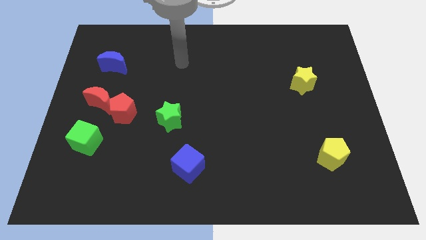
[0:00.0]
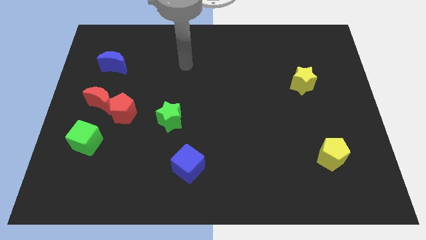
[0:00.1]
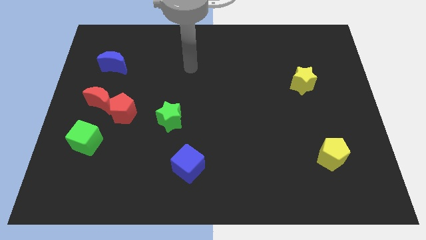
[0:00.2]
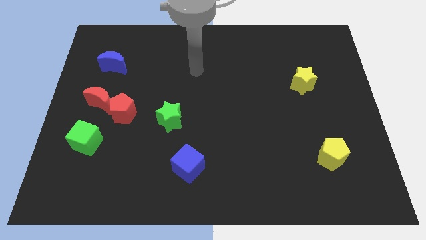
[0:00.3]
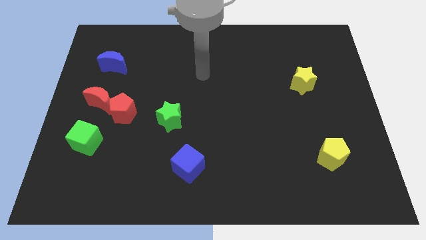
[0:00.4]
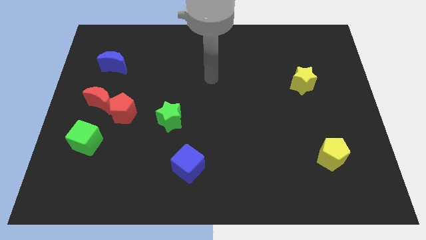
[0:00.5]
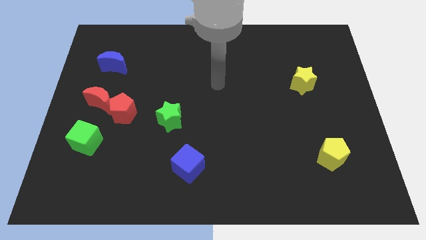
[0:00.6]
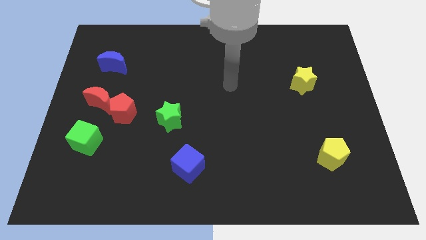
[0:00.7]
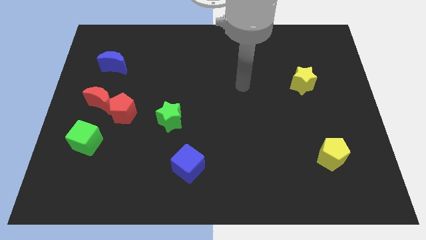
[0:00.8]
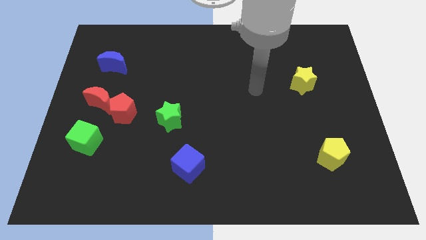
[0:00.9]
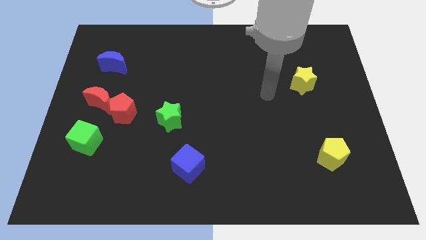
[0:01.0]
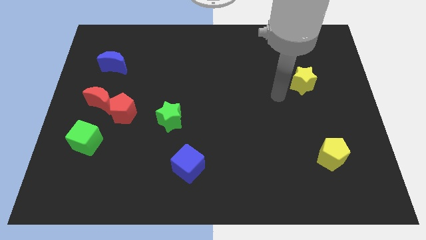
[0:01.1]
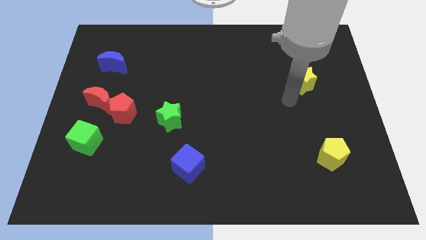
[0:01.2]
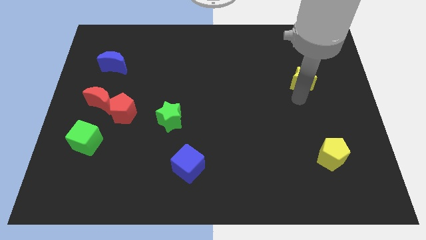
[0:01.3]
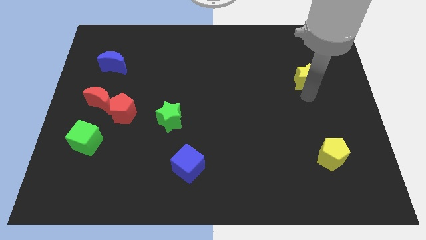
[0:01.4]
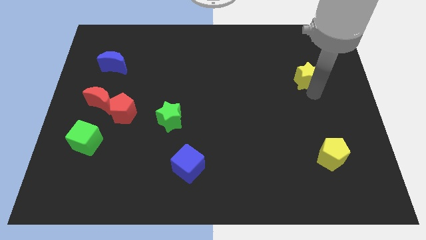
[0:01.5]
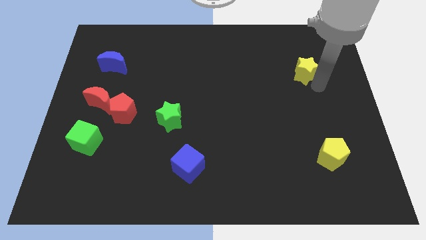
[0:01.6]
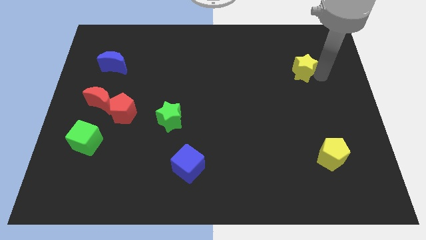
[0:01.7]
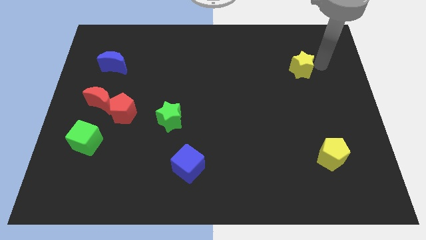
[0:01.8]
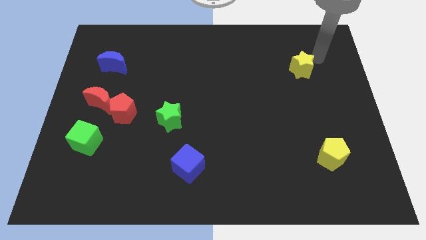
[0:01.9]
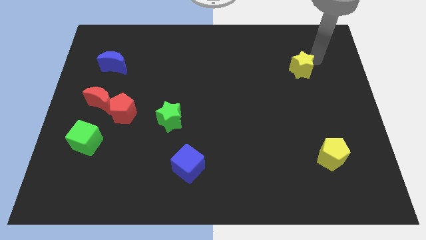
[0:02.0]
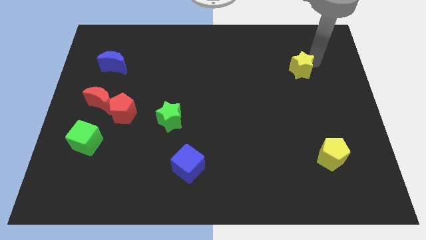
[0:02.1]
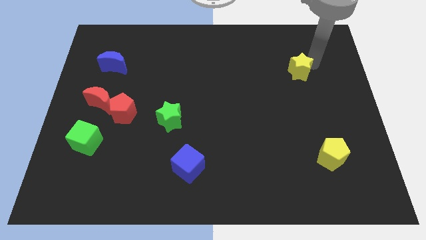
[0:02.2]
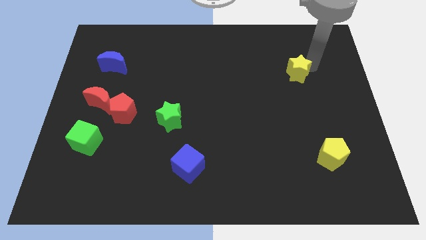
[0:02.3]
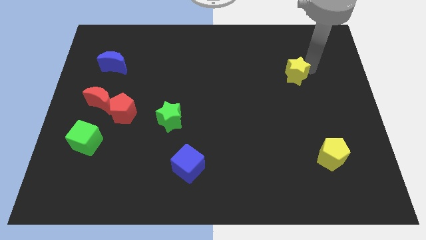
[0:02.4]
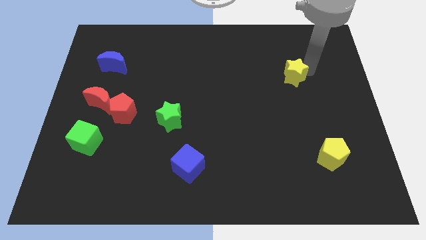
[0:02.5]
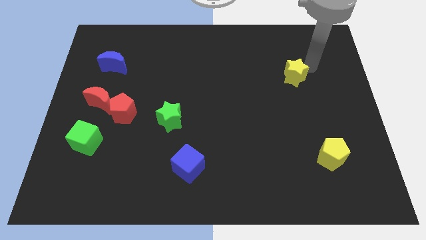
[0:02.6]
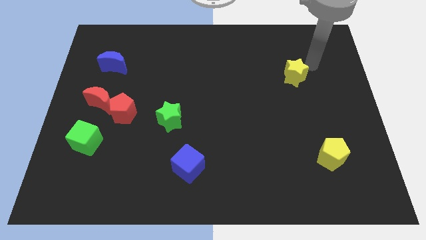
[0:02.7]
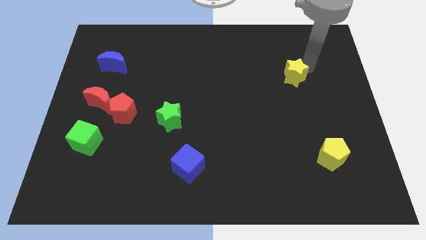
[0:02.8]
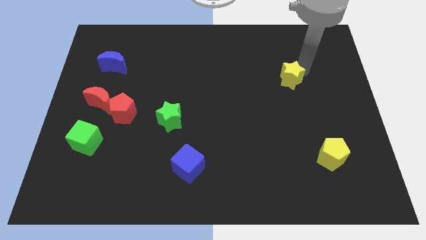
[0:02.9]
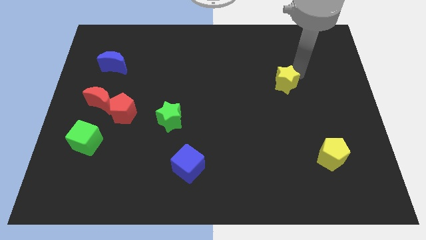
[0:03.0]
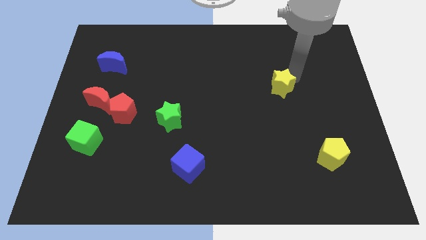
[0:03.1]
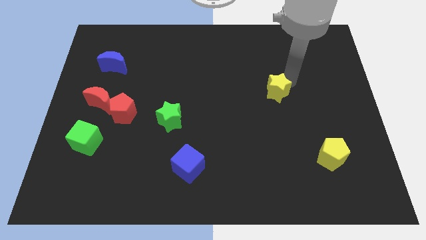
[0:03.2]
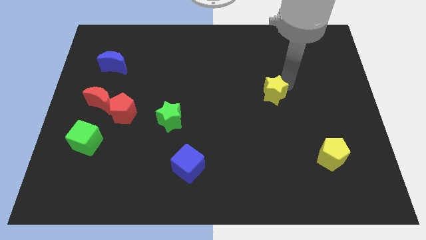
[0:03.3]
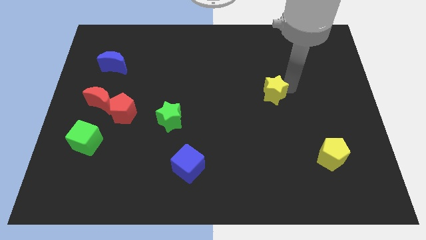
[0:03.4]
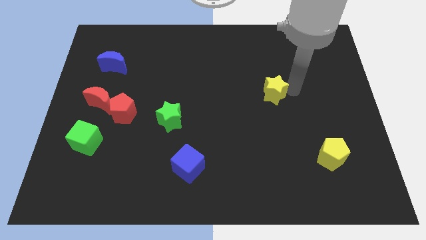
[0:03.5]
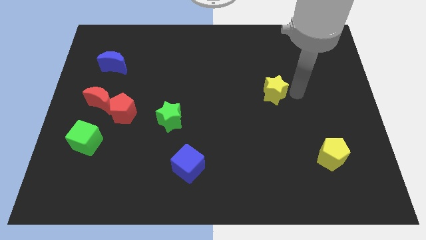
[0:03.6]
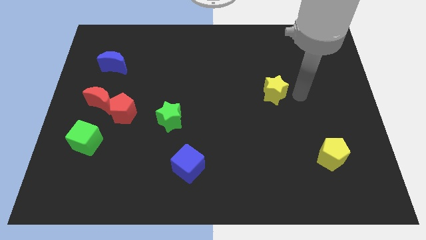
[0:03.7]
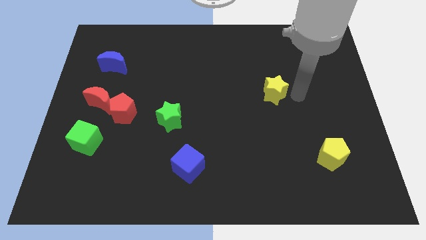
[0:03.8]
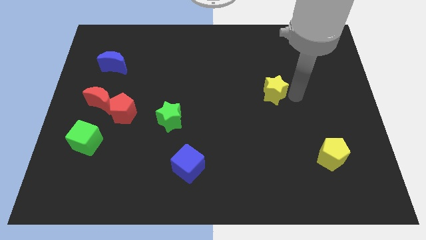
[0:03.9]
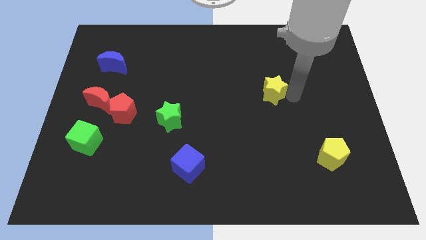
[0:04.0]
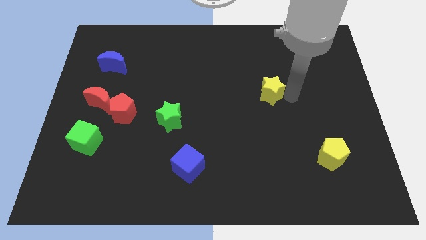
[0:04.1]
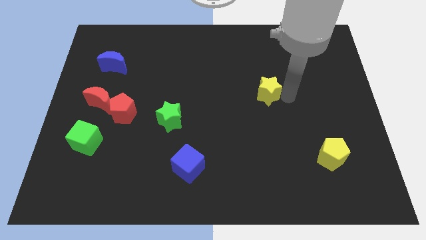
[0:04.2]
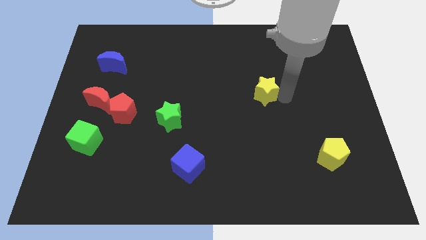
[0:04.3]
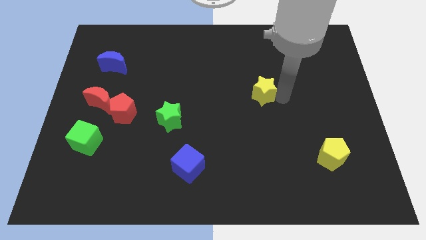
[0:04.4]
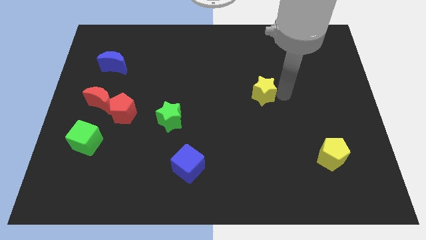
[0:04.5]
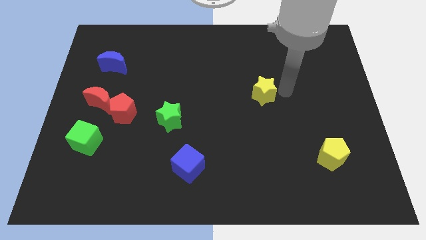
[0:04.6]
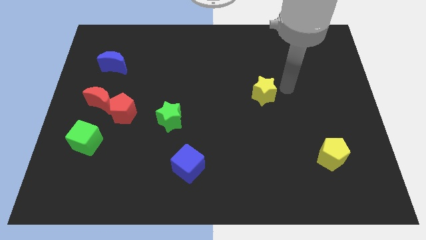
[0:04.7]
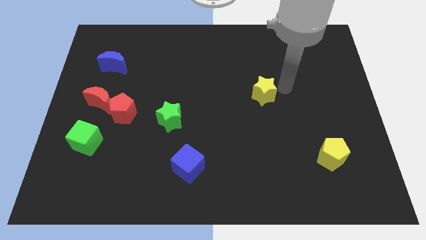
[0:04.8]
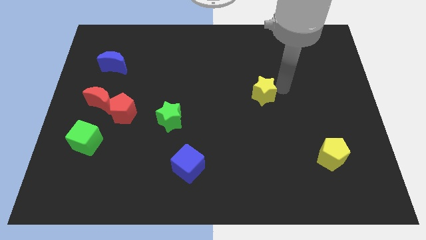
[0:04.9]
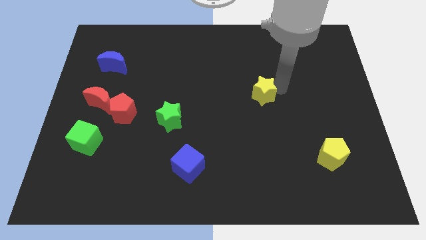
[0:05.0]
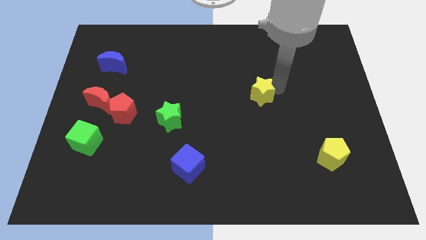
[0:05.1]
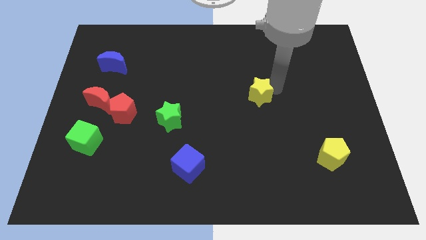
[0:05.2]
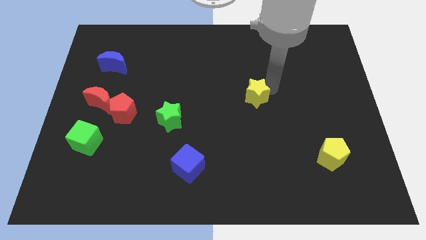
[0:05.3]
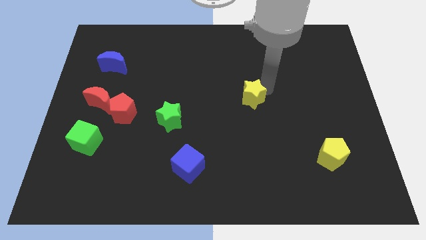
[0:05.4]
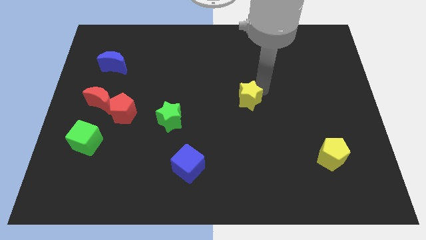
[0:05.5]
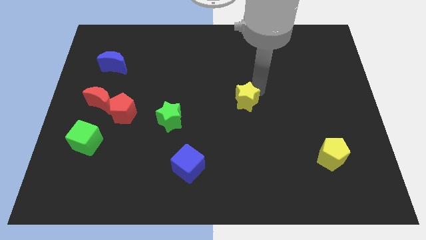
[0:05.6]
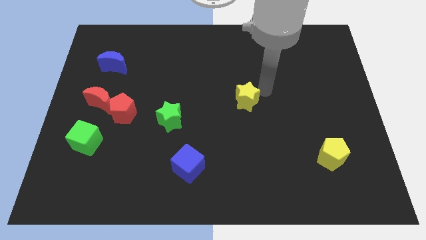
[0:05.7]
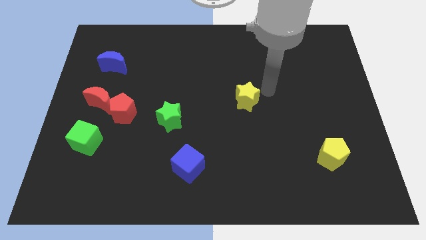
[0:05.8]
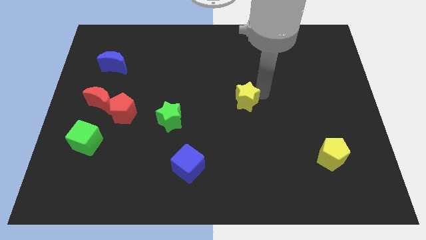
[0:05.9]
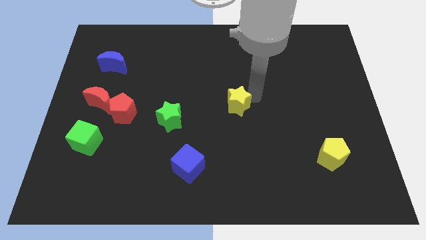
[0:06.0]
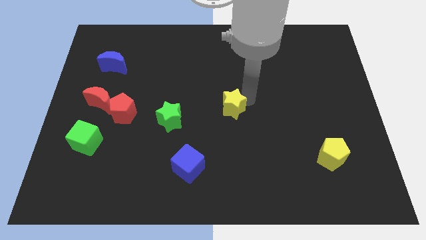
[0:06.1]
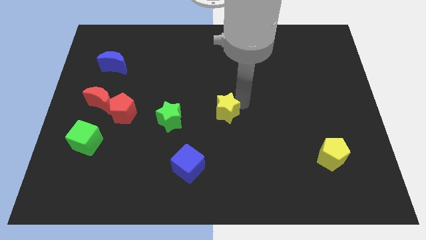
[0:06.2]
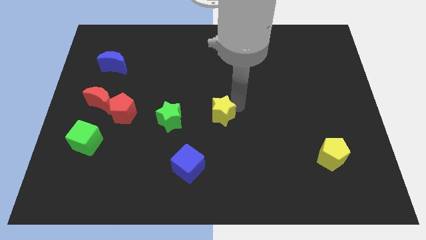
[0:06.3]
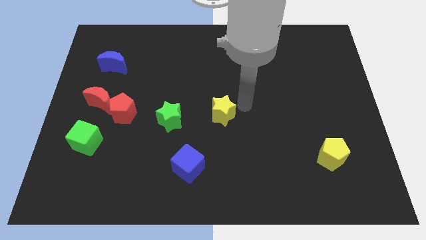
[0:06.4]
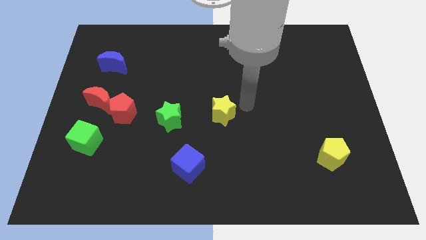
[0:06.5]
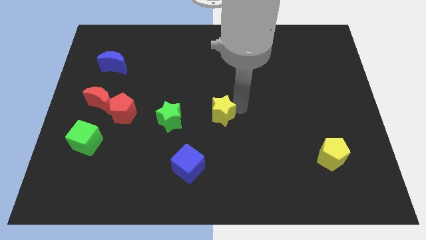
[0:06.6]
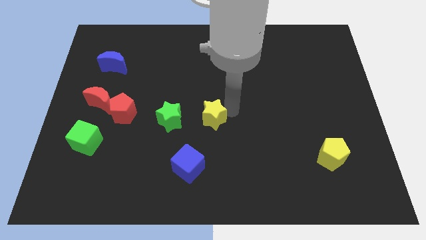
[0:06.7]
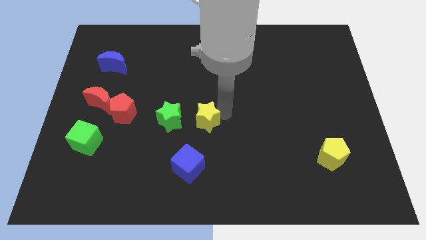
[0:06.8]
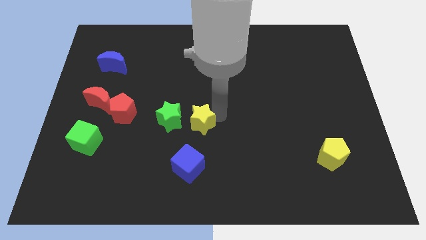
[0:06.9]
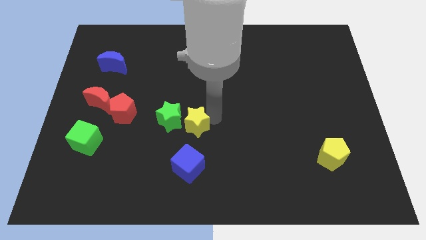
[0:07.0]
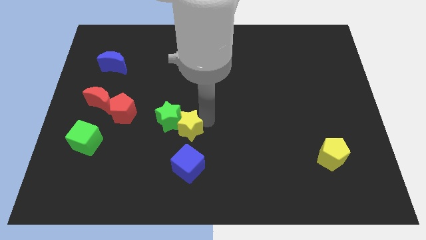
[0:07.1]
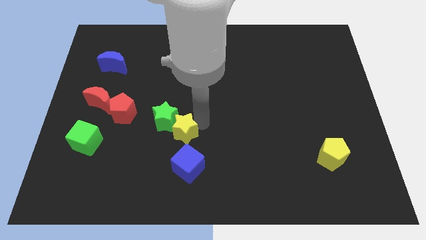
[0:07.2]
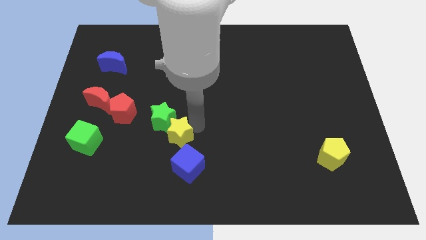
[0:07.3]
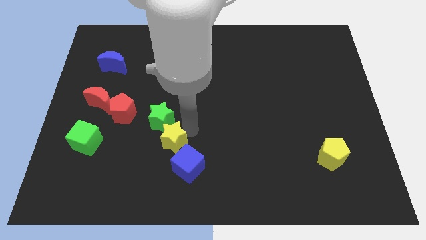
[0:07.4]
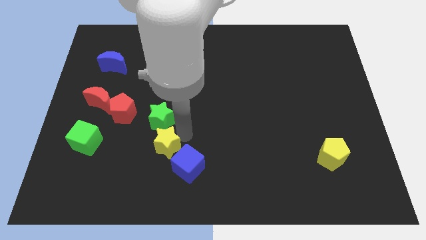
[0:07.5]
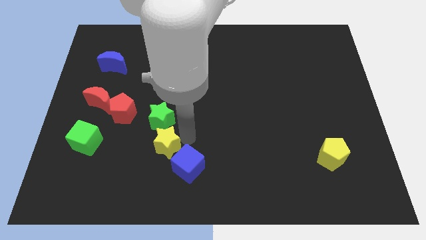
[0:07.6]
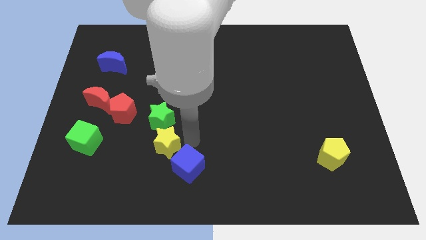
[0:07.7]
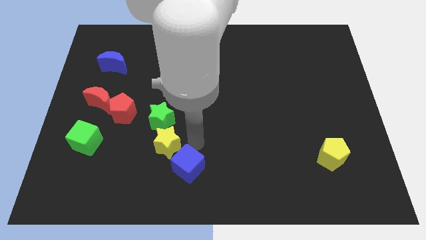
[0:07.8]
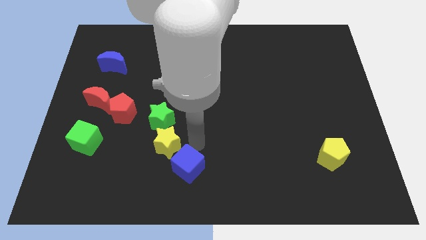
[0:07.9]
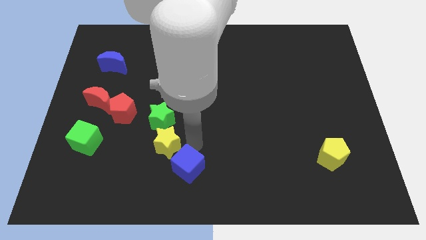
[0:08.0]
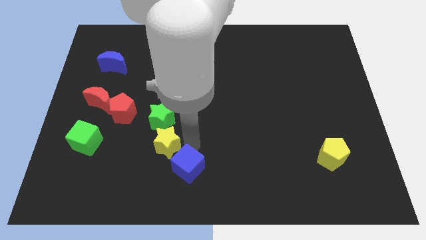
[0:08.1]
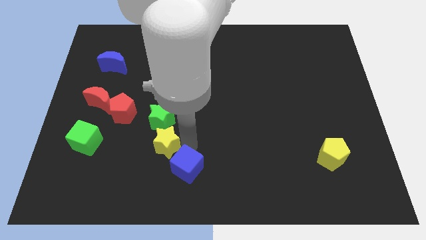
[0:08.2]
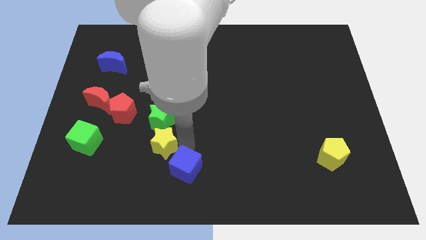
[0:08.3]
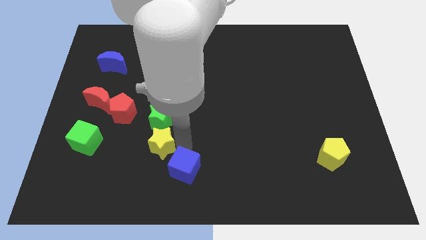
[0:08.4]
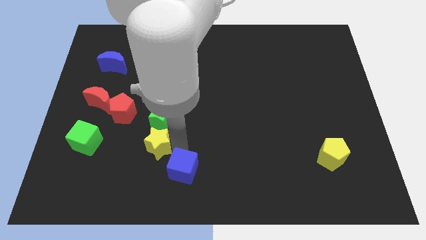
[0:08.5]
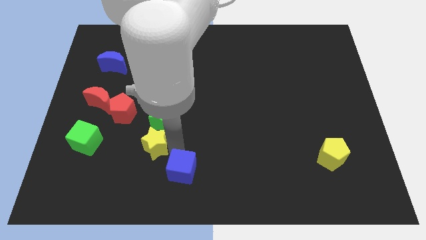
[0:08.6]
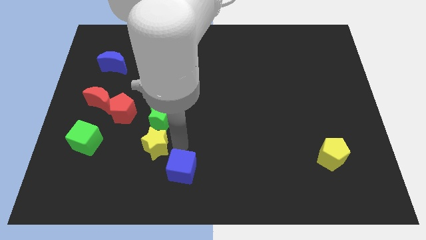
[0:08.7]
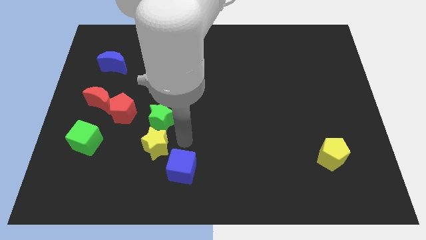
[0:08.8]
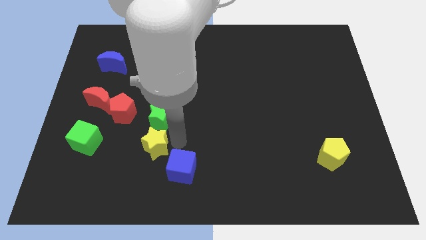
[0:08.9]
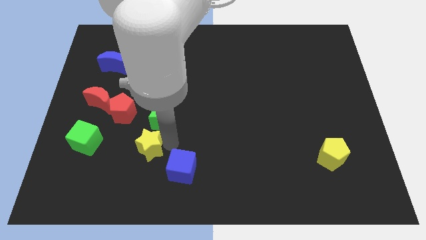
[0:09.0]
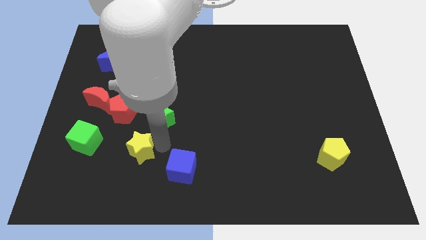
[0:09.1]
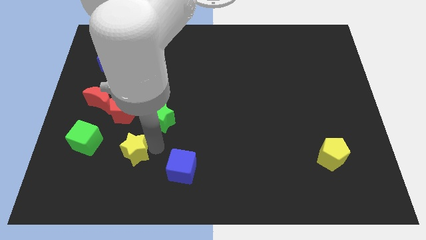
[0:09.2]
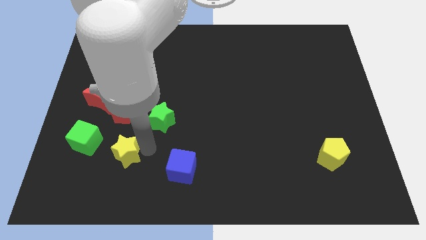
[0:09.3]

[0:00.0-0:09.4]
slide the yellow star to the bottom right side of the green cube
